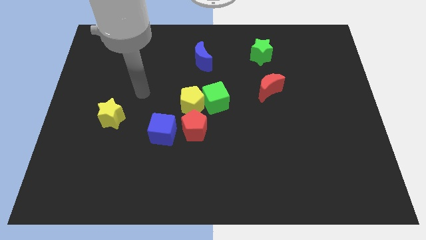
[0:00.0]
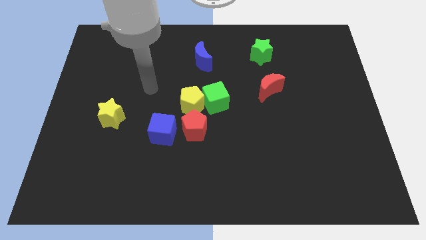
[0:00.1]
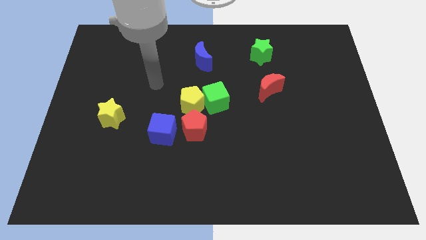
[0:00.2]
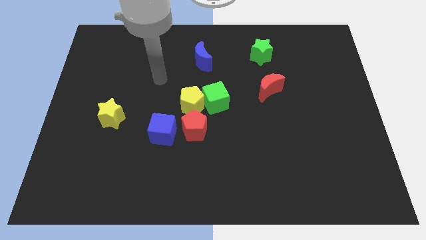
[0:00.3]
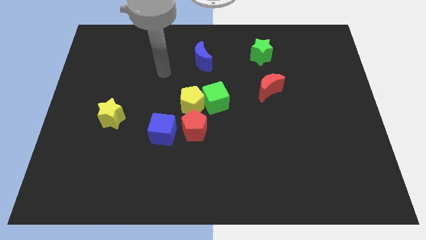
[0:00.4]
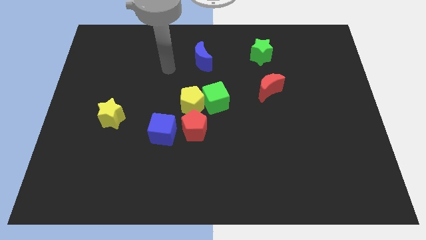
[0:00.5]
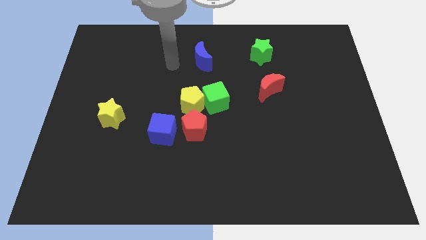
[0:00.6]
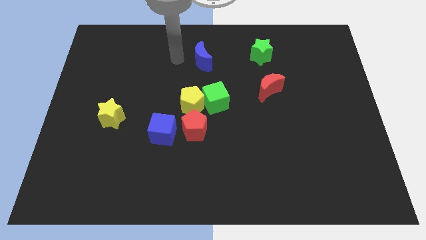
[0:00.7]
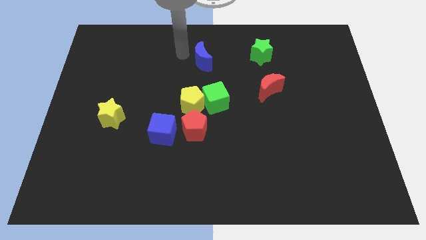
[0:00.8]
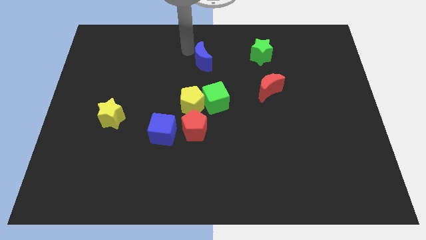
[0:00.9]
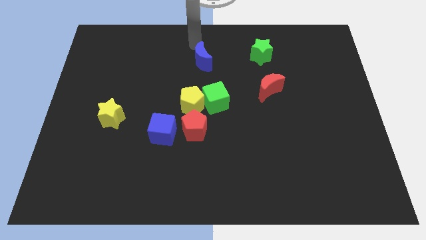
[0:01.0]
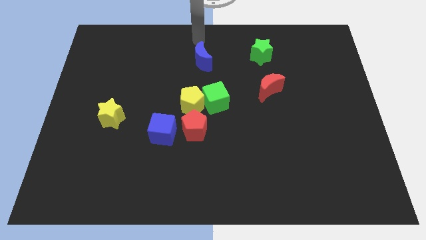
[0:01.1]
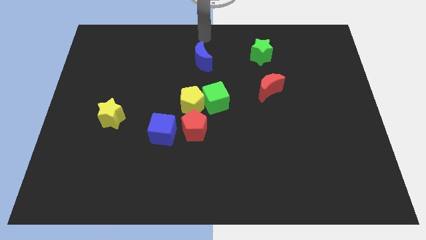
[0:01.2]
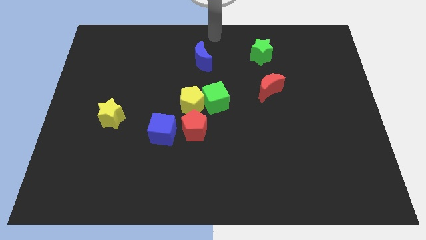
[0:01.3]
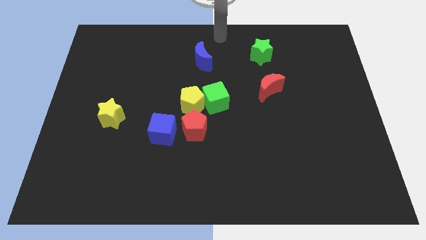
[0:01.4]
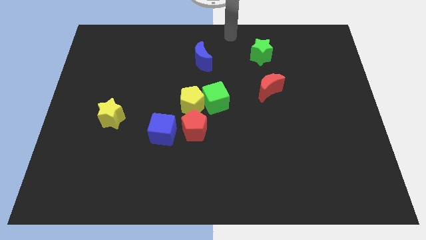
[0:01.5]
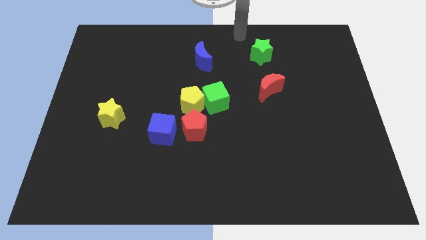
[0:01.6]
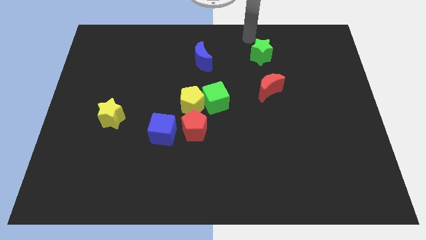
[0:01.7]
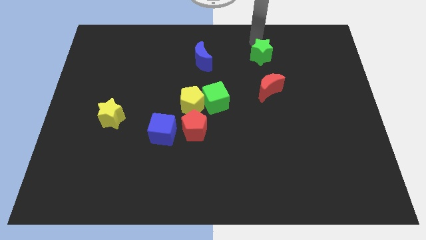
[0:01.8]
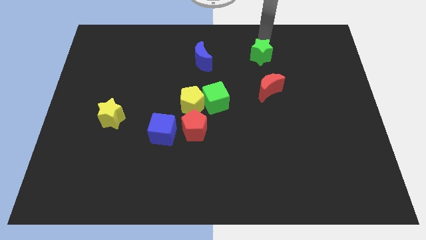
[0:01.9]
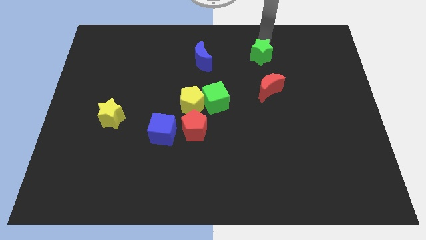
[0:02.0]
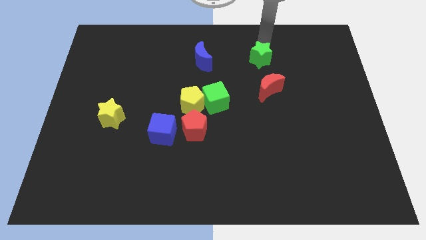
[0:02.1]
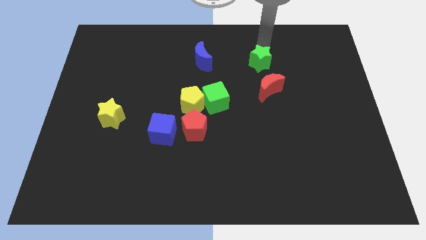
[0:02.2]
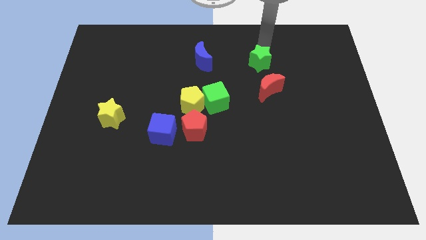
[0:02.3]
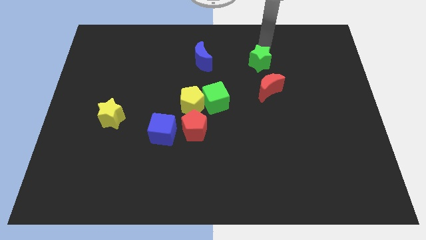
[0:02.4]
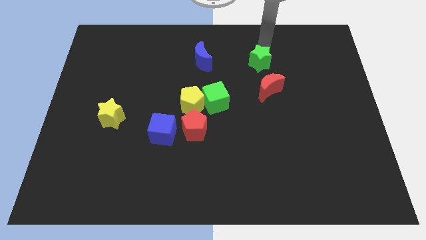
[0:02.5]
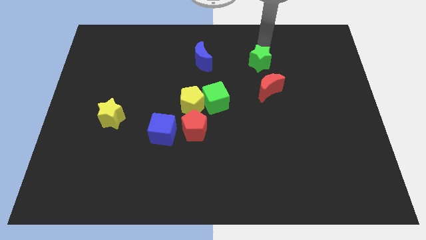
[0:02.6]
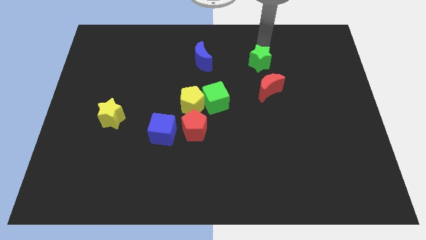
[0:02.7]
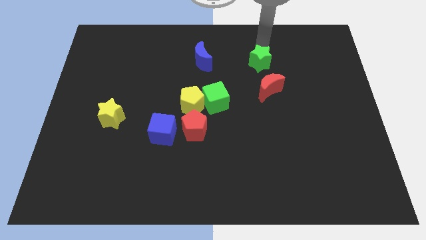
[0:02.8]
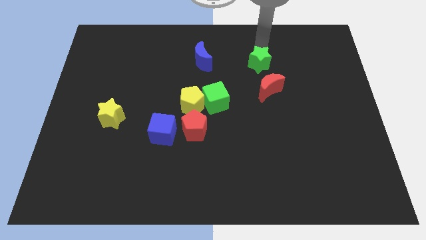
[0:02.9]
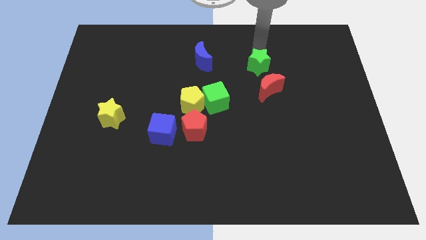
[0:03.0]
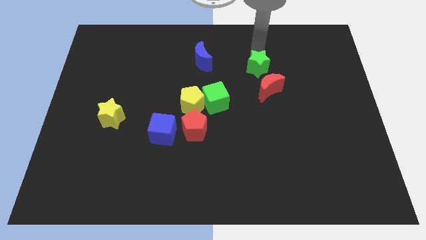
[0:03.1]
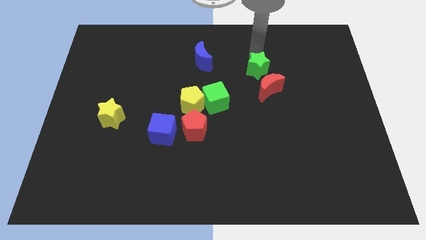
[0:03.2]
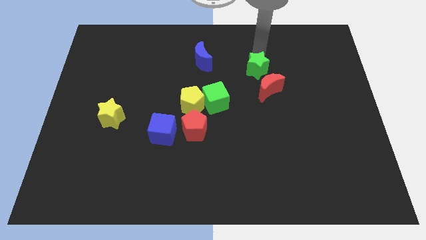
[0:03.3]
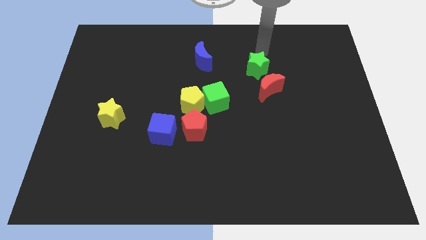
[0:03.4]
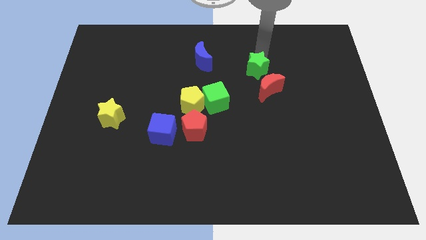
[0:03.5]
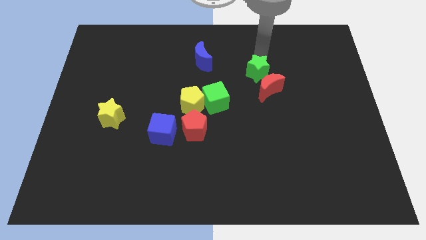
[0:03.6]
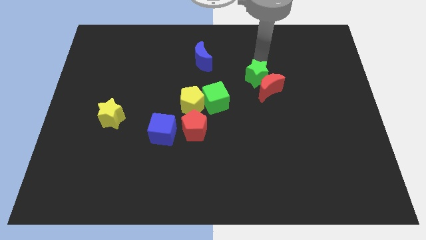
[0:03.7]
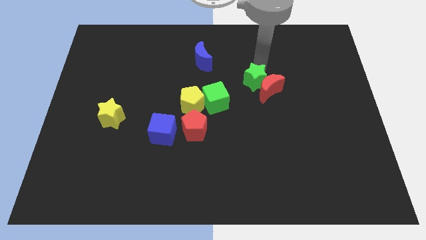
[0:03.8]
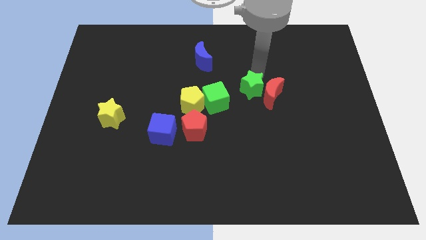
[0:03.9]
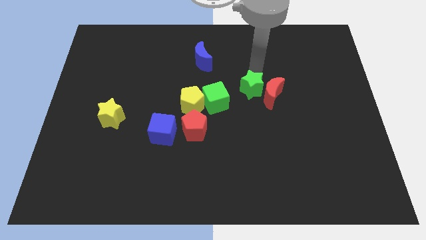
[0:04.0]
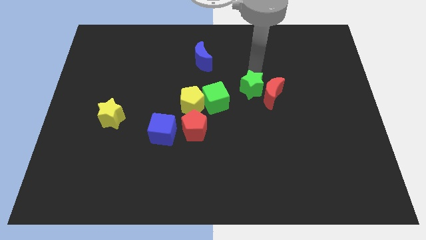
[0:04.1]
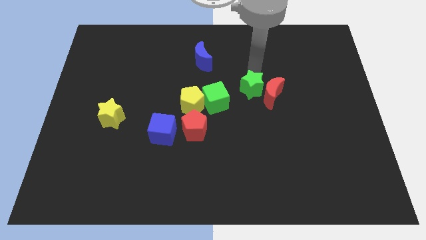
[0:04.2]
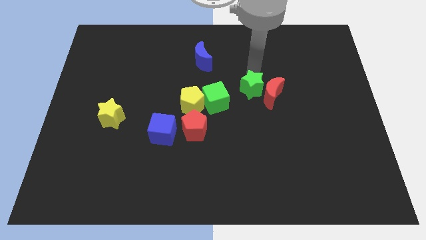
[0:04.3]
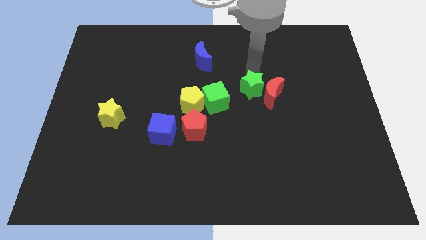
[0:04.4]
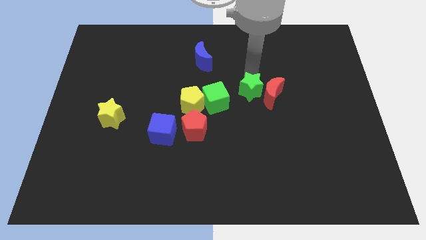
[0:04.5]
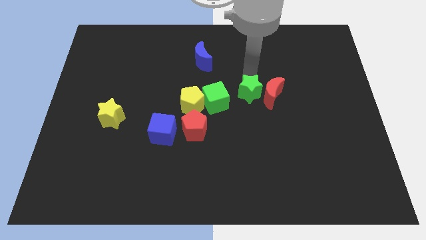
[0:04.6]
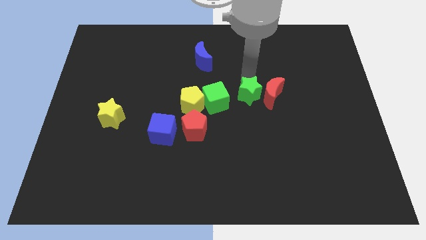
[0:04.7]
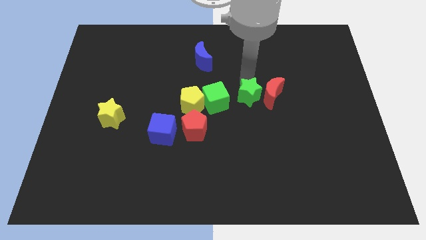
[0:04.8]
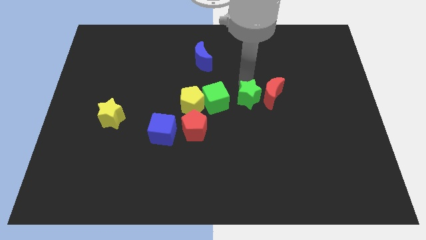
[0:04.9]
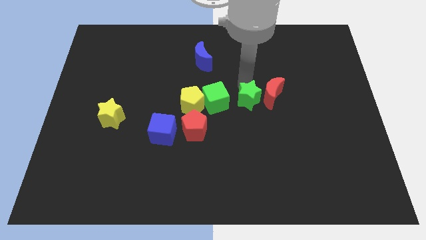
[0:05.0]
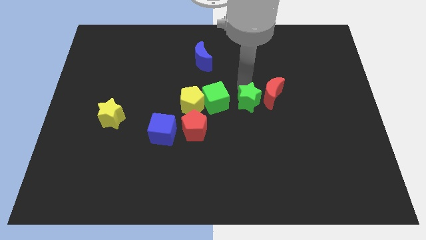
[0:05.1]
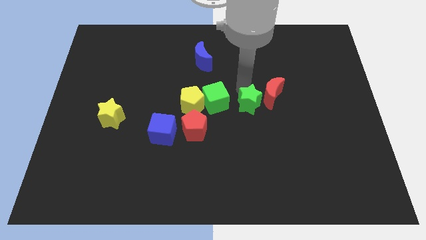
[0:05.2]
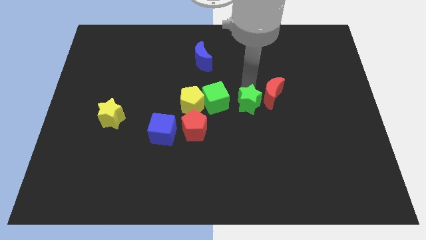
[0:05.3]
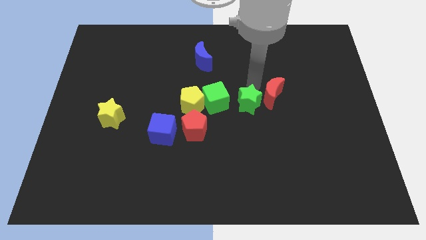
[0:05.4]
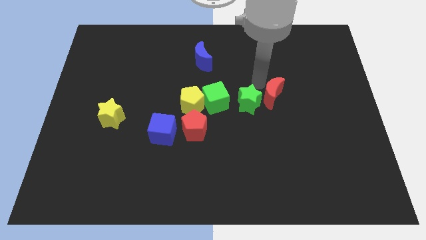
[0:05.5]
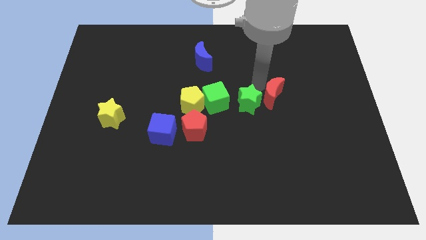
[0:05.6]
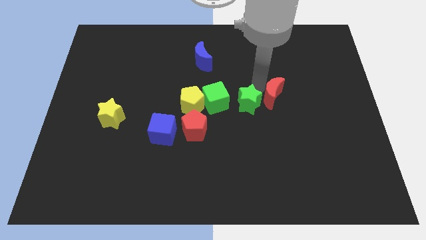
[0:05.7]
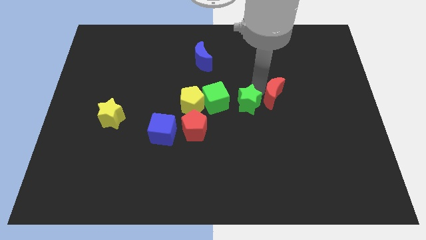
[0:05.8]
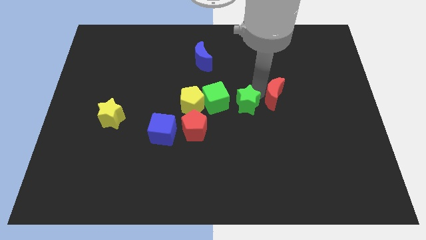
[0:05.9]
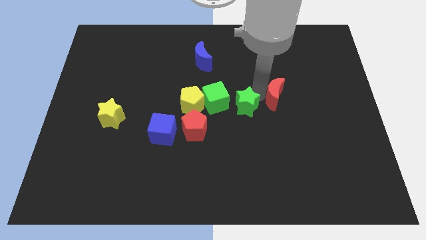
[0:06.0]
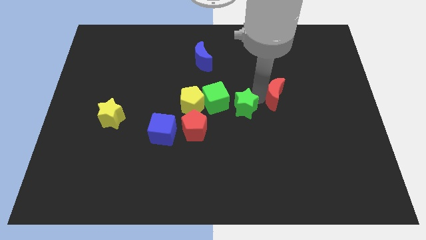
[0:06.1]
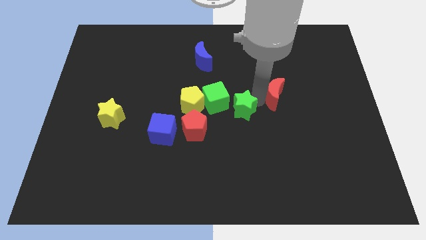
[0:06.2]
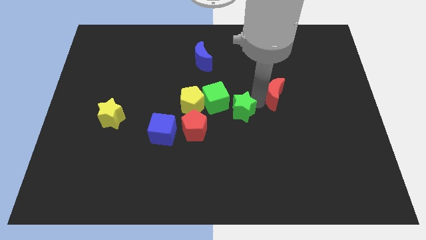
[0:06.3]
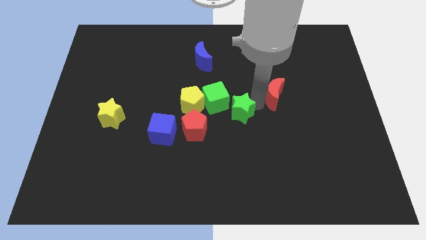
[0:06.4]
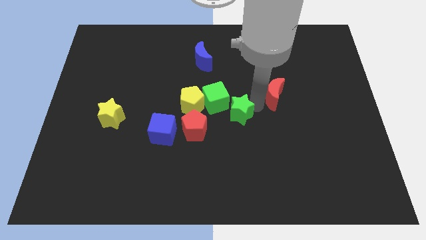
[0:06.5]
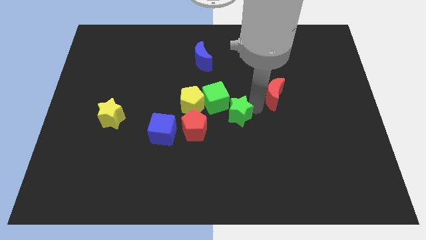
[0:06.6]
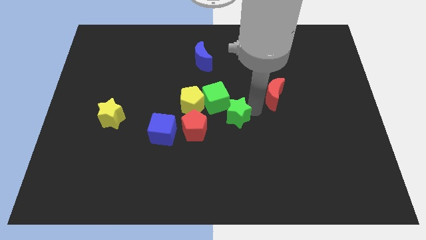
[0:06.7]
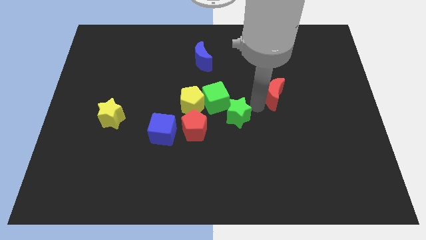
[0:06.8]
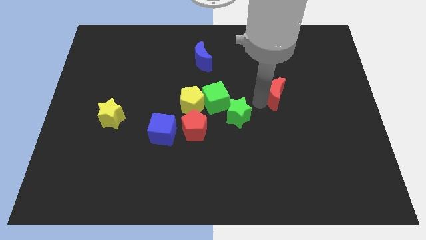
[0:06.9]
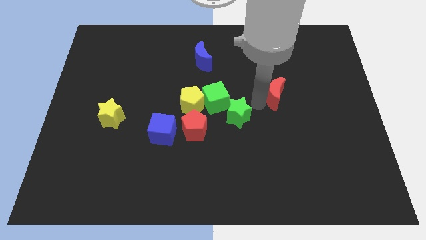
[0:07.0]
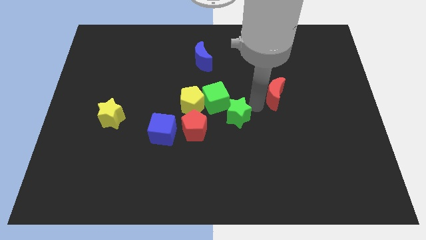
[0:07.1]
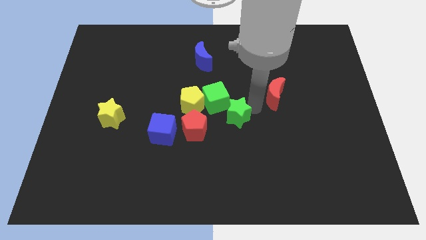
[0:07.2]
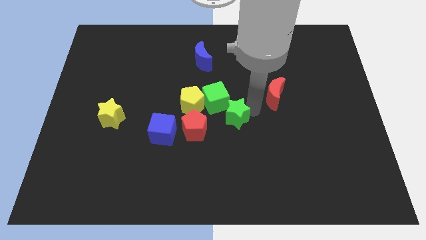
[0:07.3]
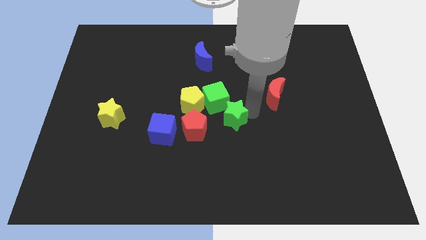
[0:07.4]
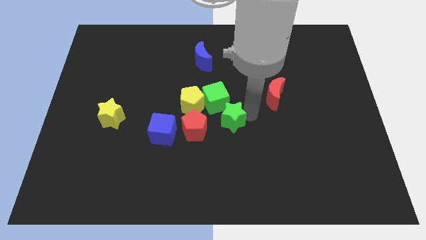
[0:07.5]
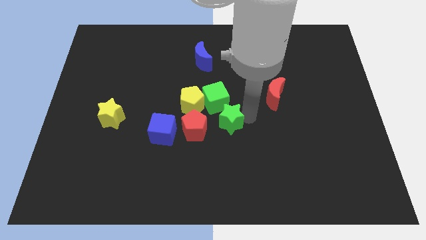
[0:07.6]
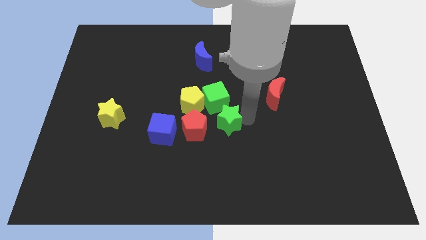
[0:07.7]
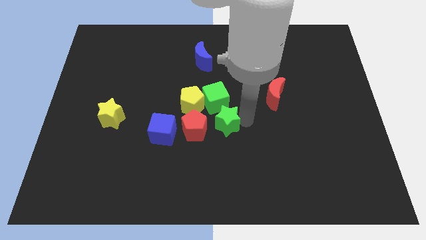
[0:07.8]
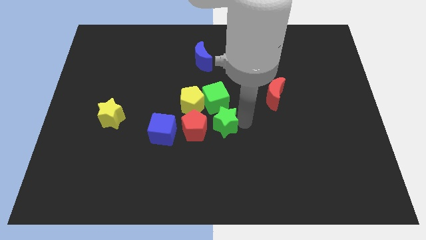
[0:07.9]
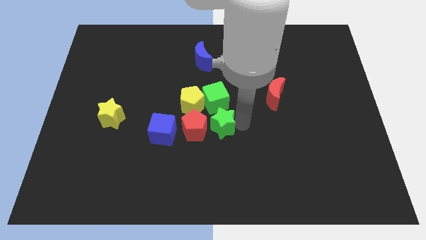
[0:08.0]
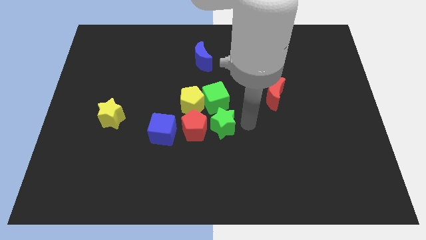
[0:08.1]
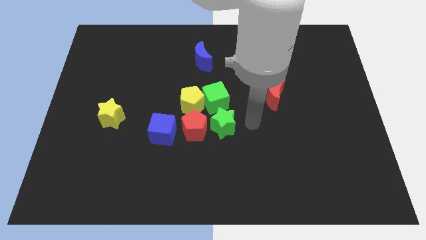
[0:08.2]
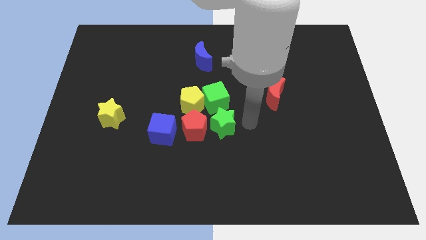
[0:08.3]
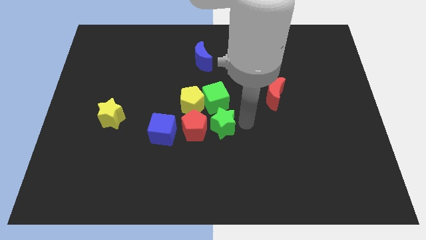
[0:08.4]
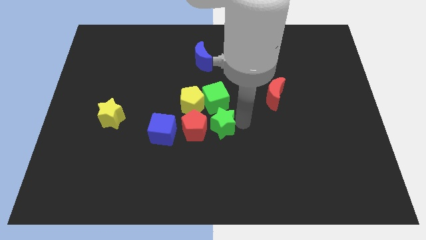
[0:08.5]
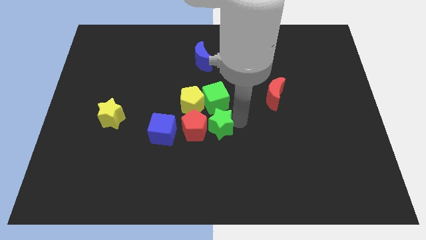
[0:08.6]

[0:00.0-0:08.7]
put the green star towards the red pentagon
